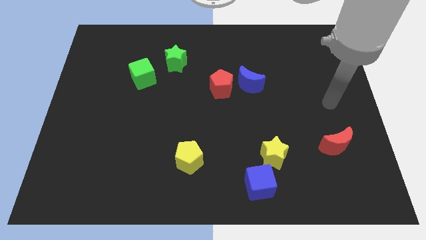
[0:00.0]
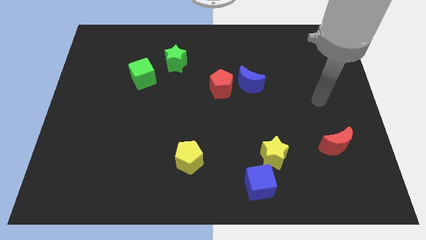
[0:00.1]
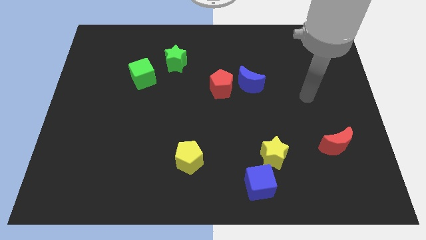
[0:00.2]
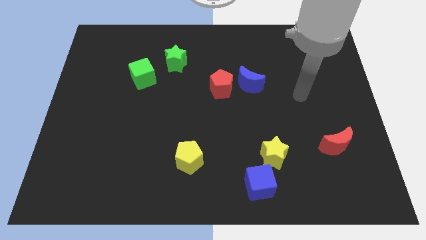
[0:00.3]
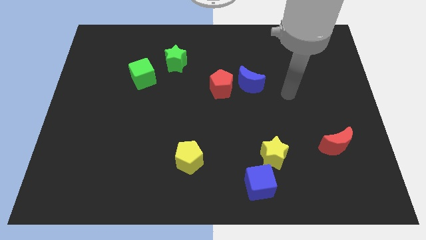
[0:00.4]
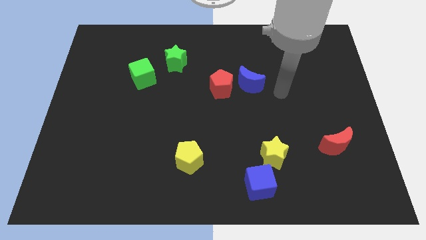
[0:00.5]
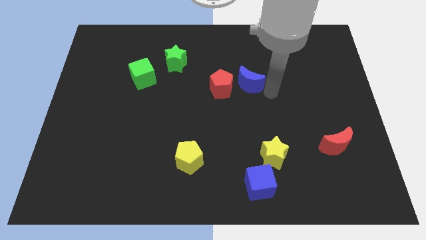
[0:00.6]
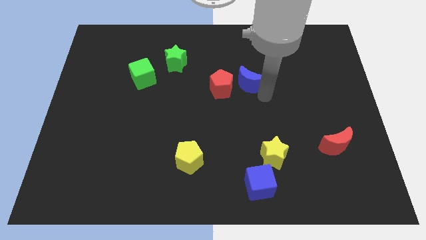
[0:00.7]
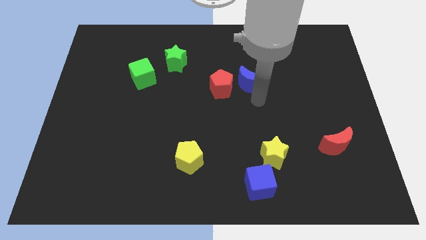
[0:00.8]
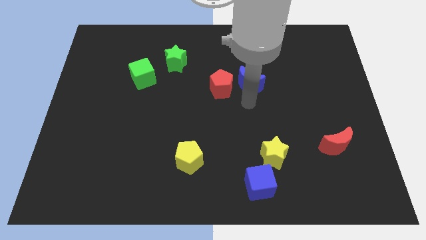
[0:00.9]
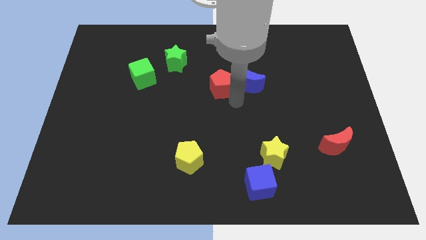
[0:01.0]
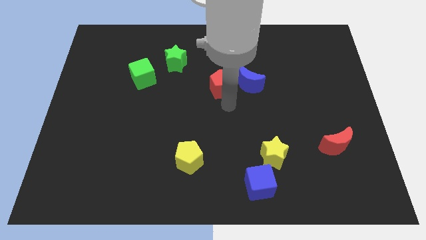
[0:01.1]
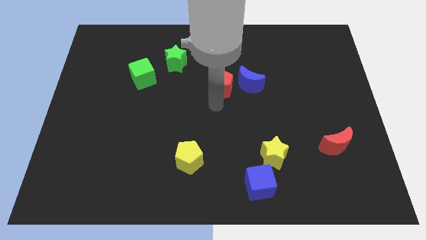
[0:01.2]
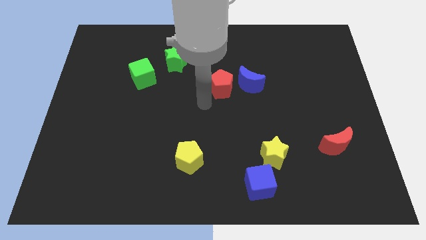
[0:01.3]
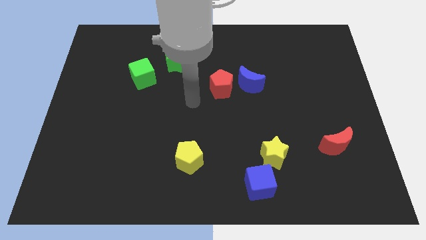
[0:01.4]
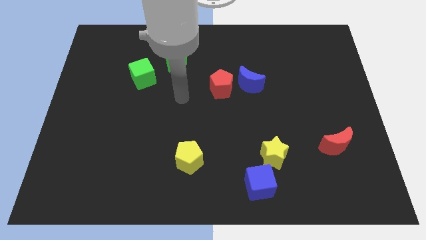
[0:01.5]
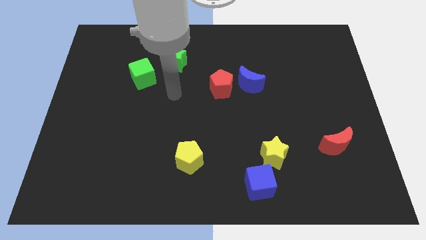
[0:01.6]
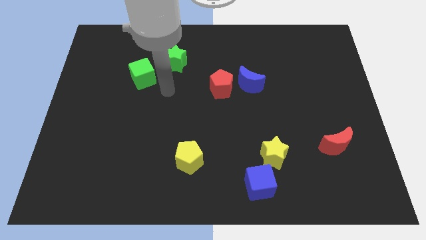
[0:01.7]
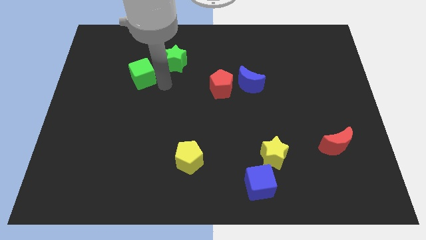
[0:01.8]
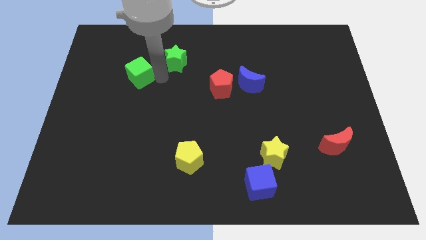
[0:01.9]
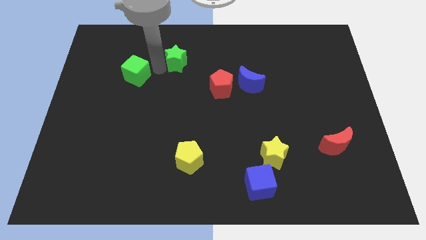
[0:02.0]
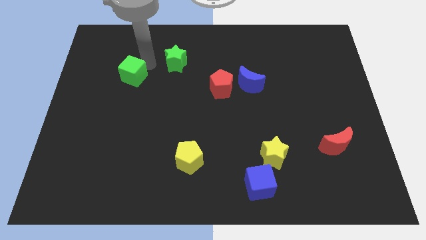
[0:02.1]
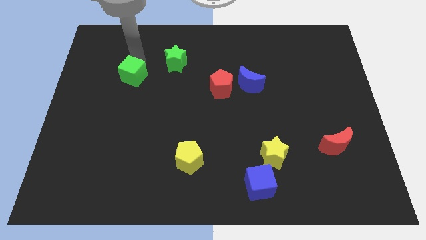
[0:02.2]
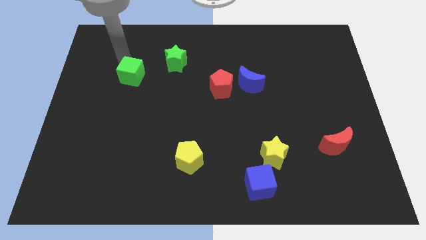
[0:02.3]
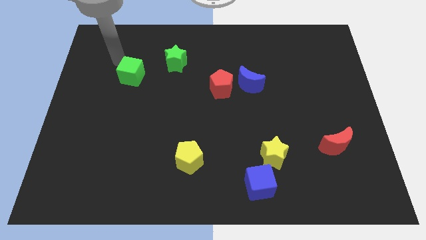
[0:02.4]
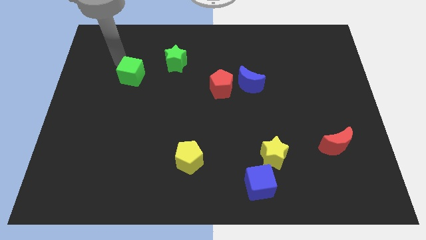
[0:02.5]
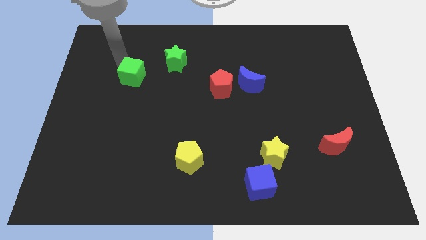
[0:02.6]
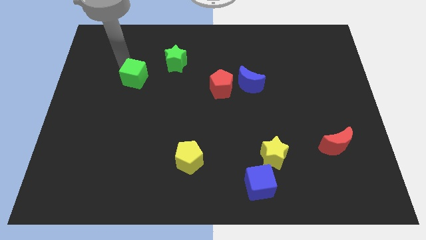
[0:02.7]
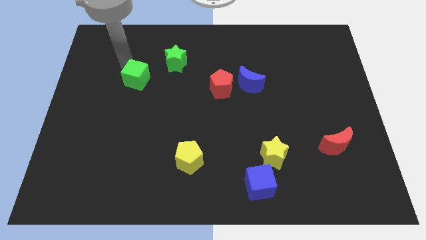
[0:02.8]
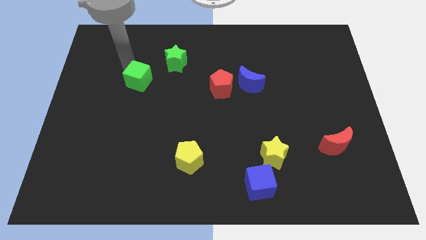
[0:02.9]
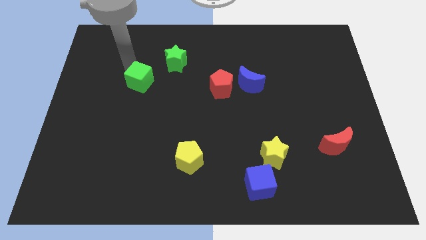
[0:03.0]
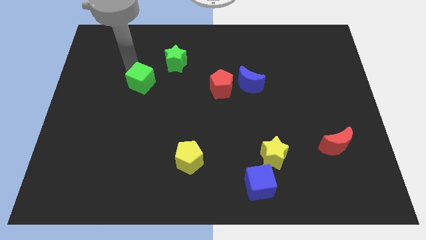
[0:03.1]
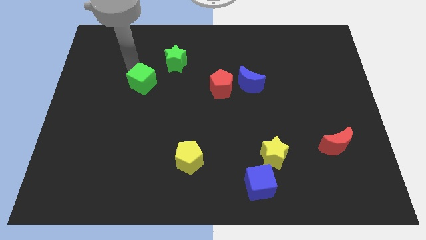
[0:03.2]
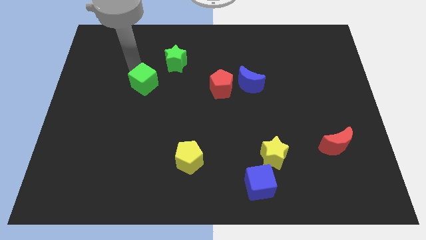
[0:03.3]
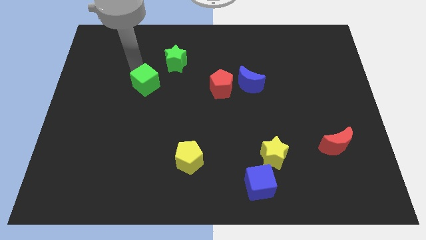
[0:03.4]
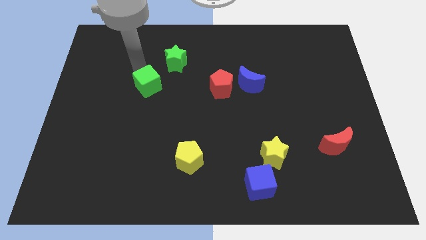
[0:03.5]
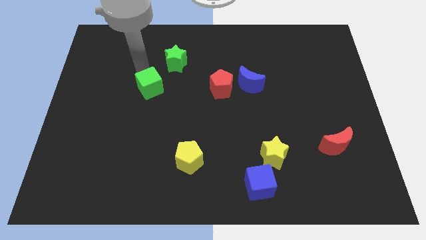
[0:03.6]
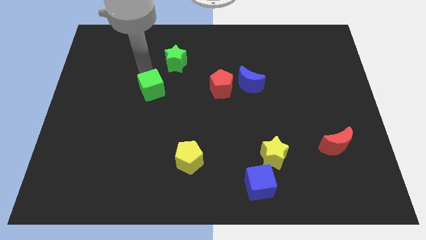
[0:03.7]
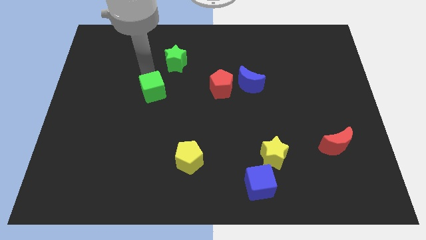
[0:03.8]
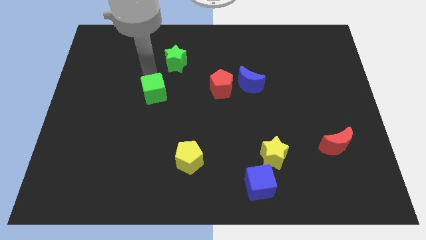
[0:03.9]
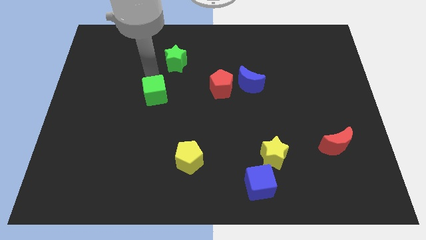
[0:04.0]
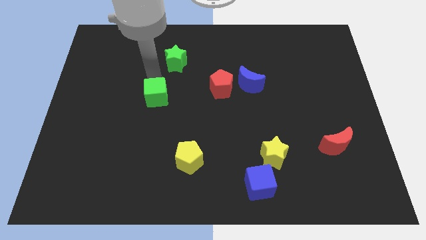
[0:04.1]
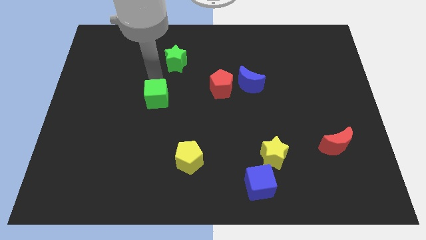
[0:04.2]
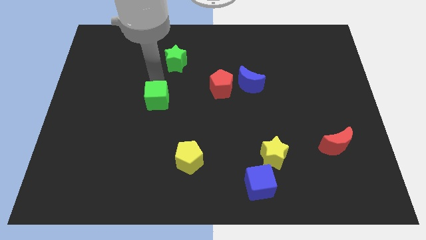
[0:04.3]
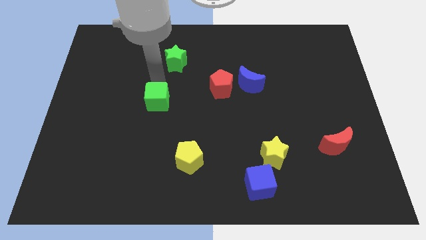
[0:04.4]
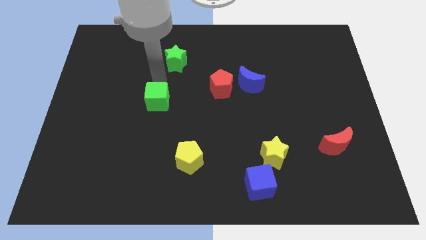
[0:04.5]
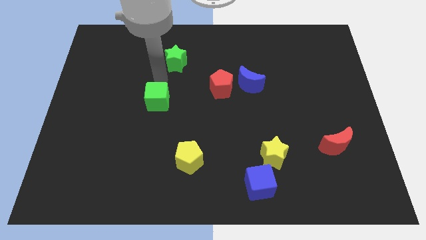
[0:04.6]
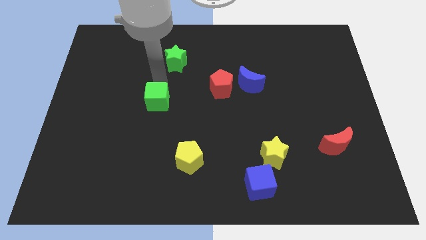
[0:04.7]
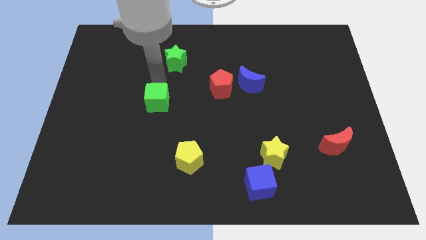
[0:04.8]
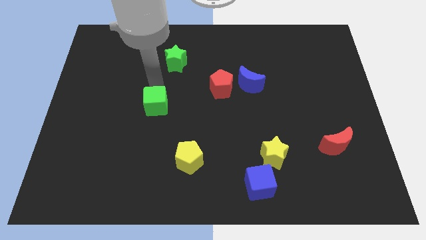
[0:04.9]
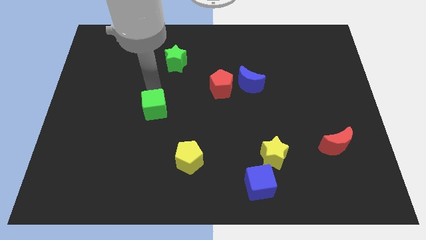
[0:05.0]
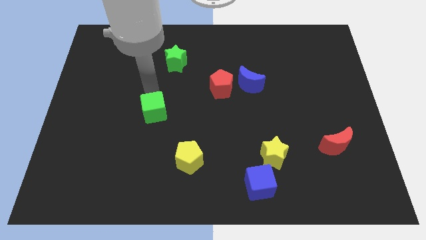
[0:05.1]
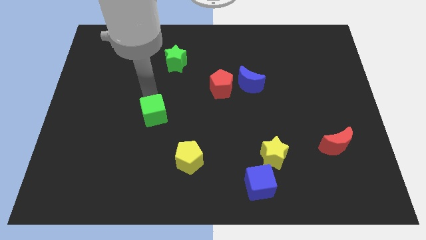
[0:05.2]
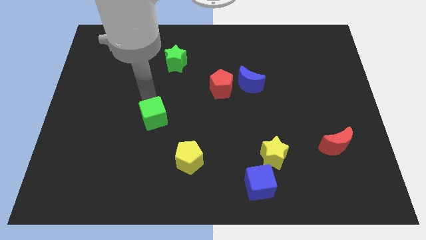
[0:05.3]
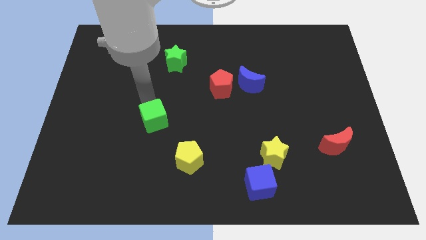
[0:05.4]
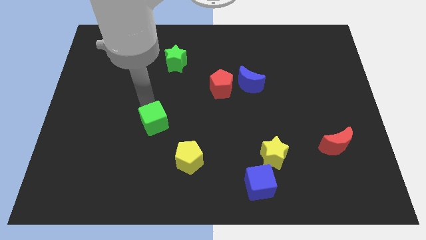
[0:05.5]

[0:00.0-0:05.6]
put the green cube to the top left side of the yellow pentagon

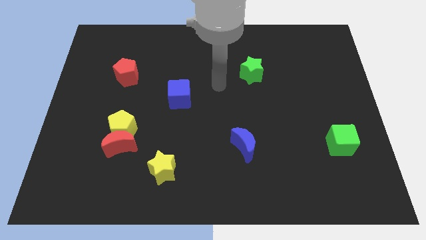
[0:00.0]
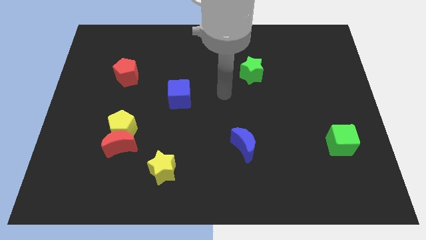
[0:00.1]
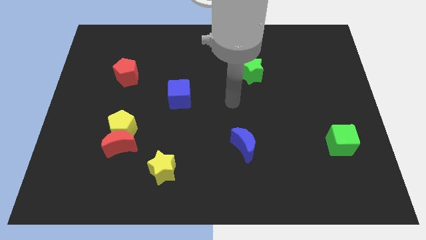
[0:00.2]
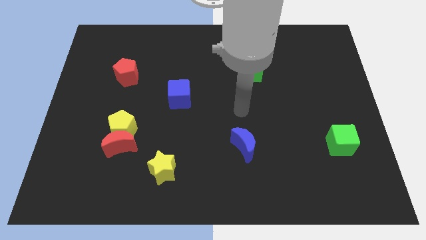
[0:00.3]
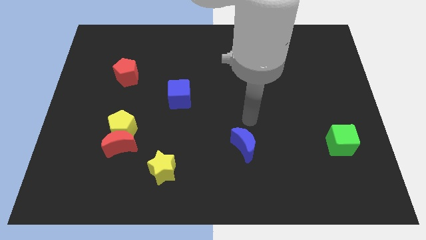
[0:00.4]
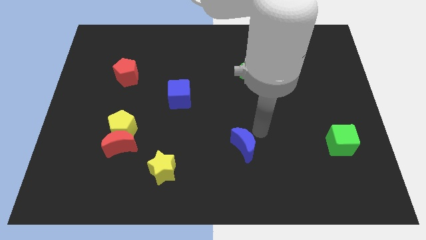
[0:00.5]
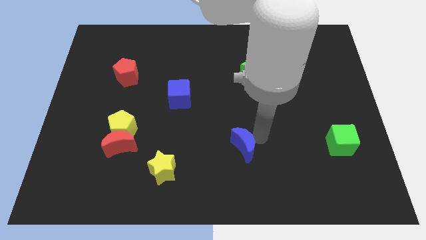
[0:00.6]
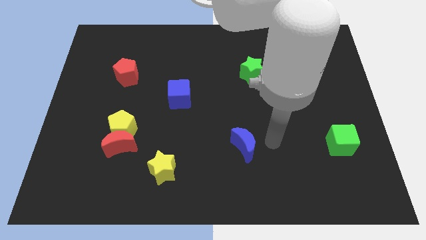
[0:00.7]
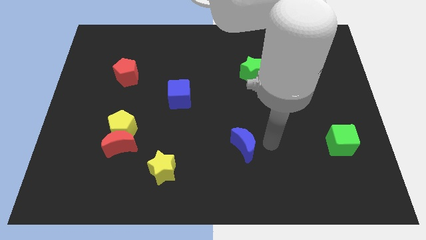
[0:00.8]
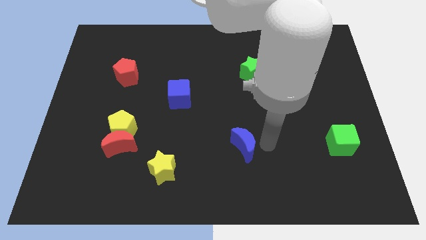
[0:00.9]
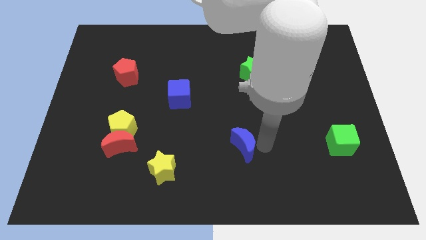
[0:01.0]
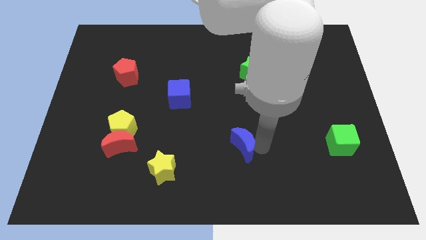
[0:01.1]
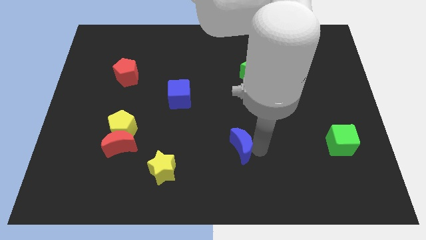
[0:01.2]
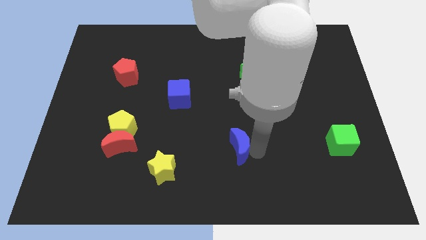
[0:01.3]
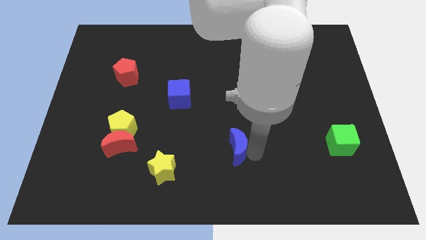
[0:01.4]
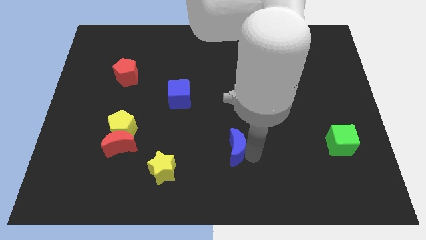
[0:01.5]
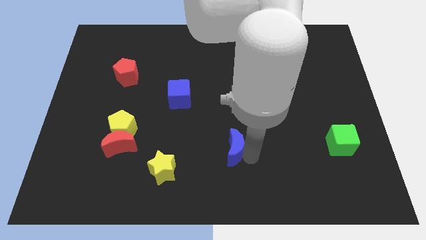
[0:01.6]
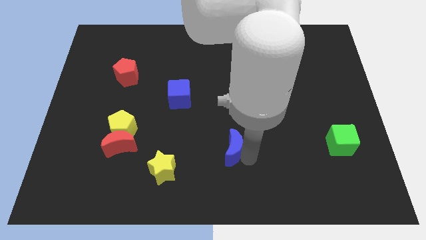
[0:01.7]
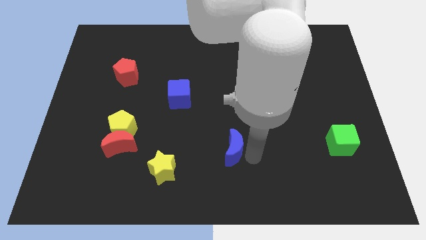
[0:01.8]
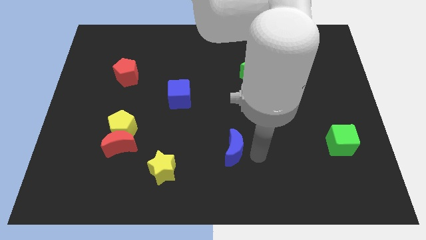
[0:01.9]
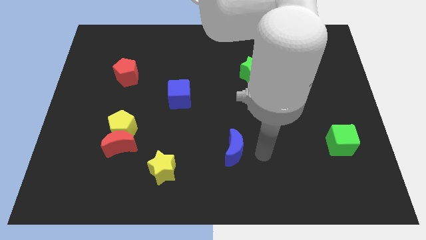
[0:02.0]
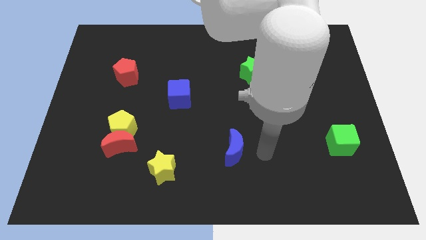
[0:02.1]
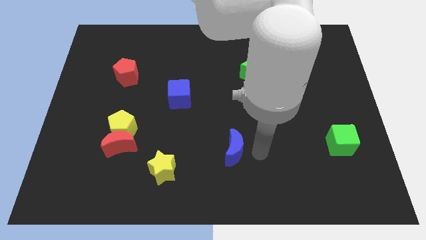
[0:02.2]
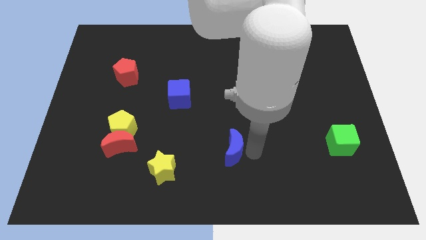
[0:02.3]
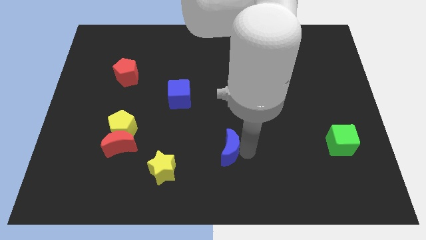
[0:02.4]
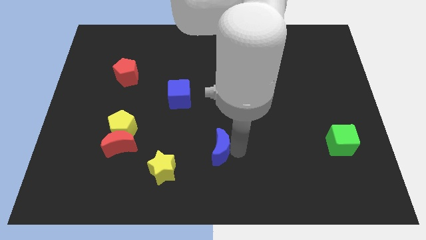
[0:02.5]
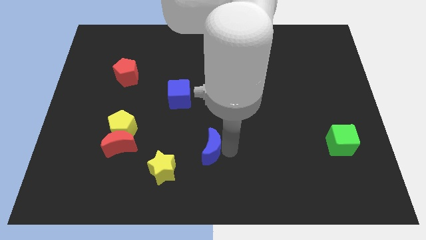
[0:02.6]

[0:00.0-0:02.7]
move the blue moon to the top right of the yellow star
